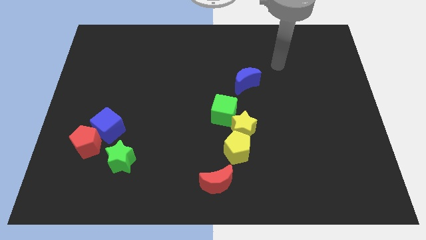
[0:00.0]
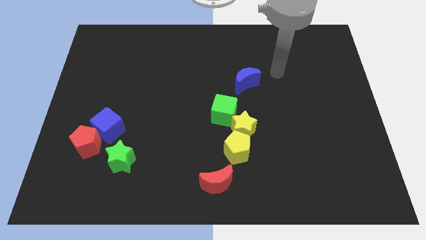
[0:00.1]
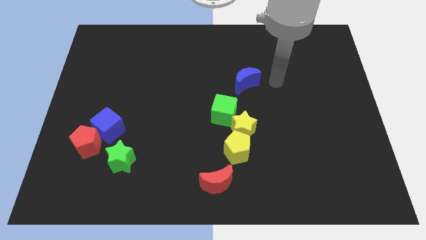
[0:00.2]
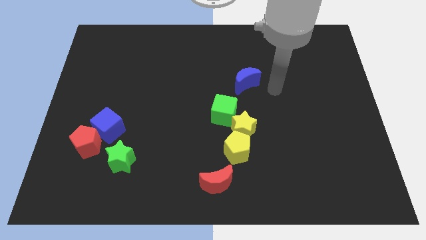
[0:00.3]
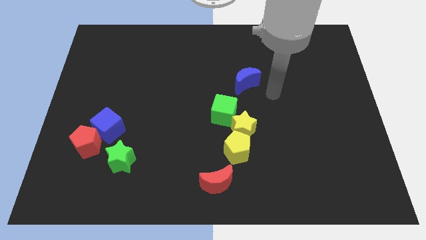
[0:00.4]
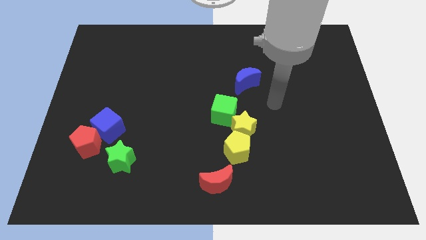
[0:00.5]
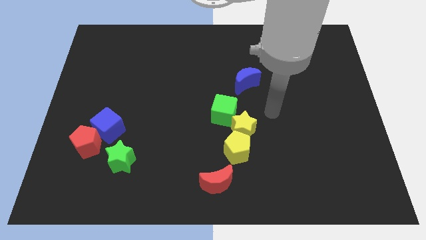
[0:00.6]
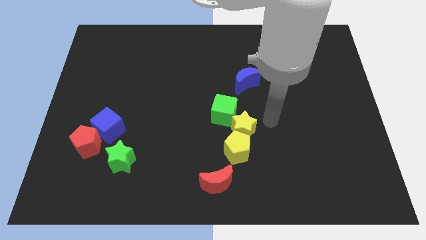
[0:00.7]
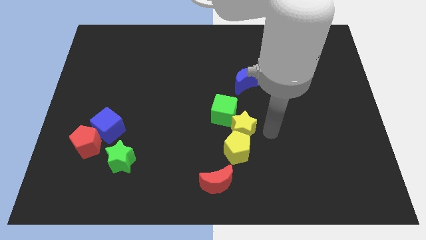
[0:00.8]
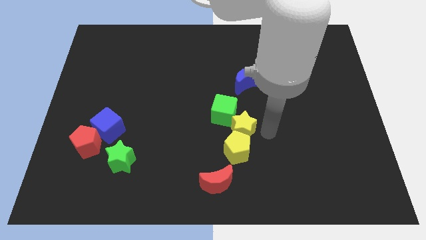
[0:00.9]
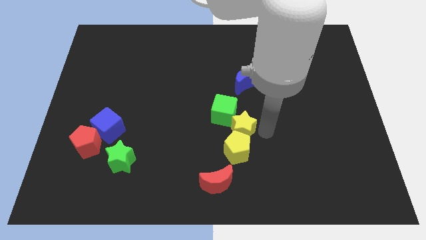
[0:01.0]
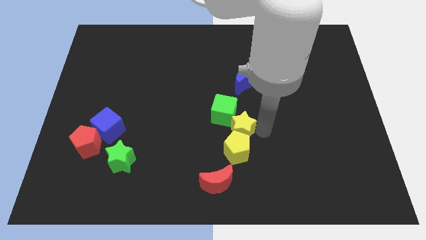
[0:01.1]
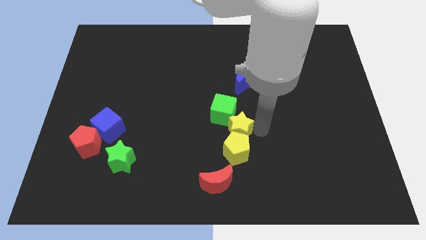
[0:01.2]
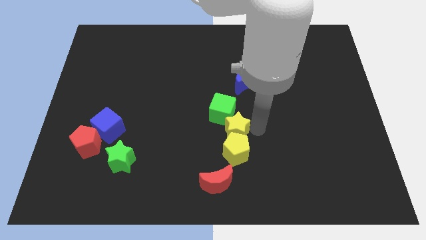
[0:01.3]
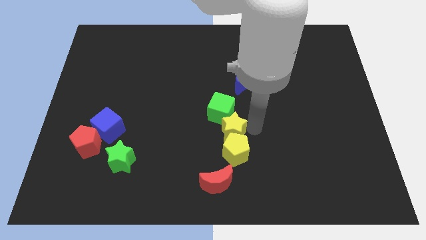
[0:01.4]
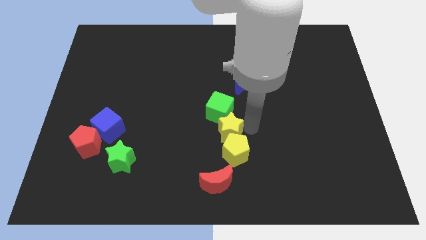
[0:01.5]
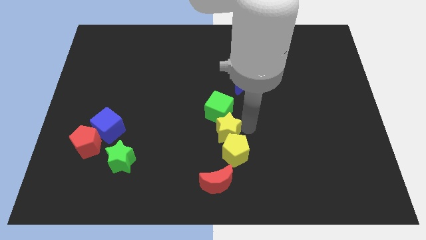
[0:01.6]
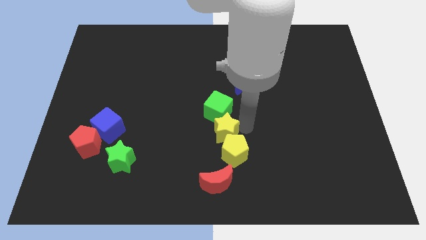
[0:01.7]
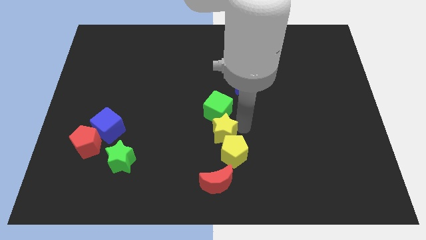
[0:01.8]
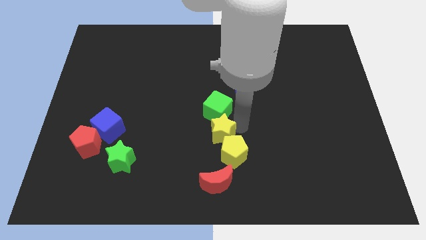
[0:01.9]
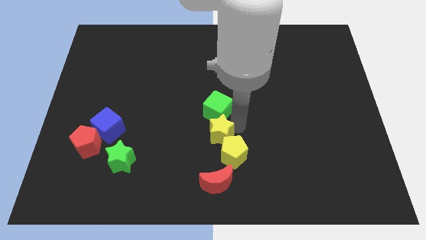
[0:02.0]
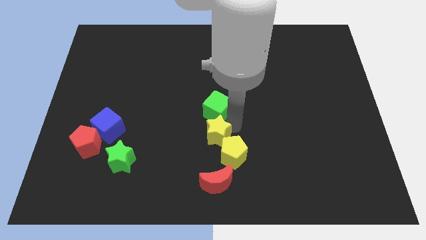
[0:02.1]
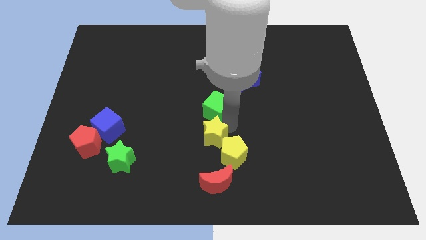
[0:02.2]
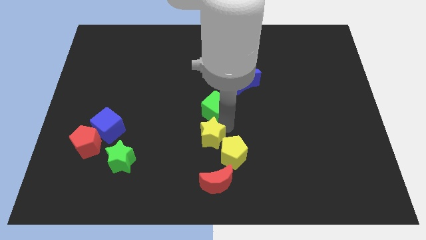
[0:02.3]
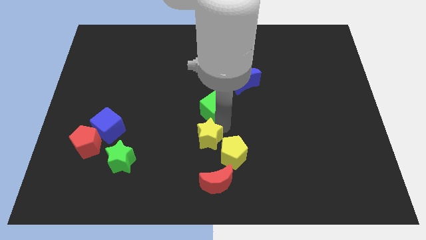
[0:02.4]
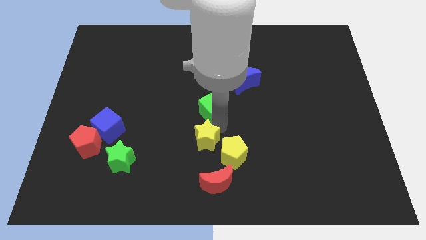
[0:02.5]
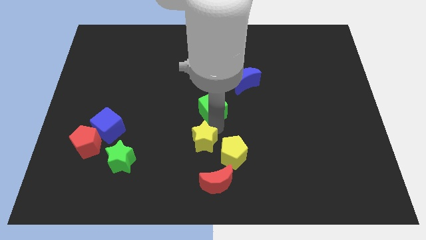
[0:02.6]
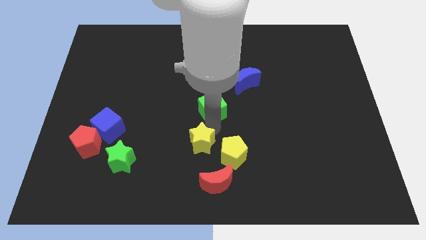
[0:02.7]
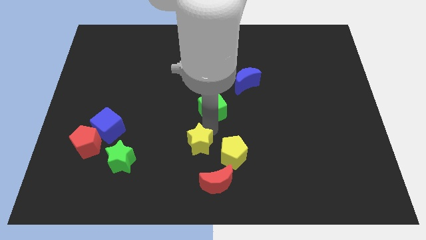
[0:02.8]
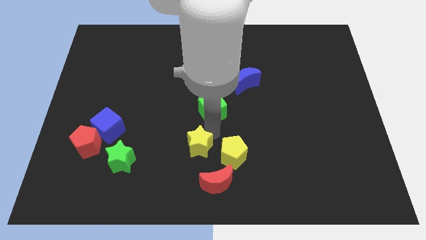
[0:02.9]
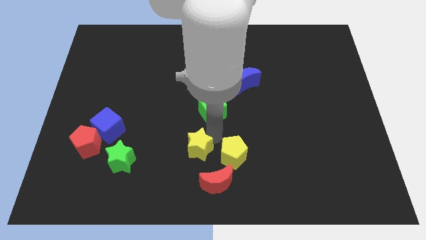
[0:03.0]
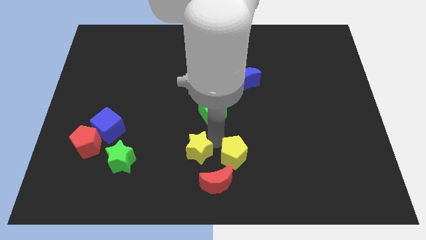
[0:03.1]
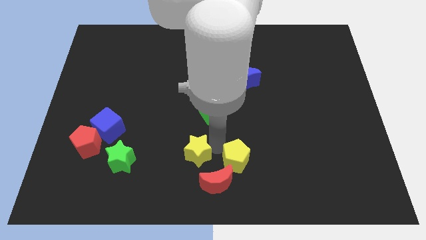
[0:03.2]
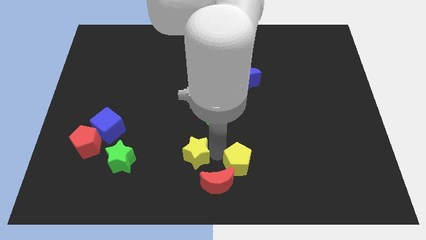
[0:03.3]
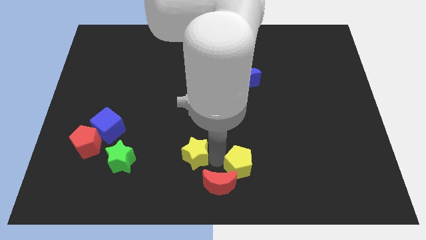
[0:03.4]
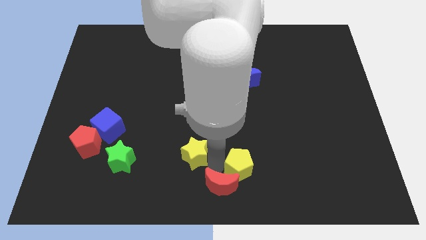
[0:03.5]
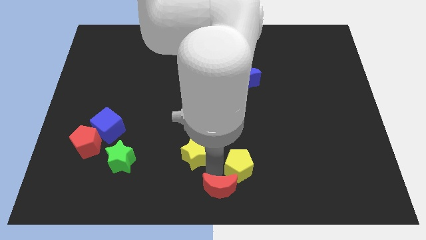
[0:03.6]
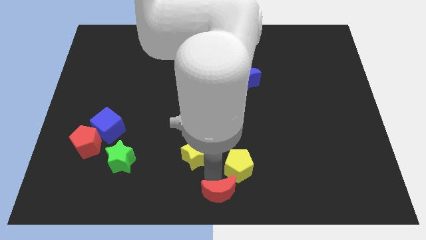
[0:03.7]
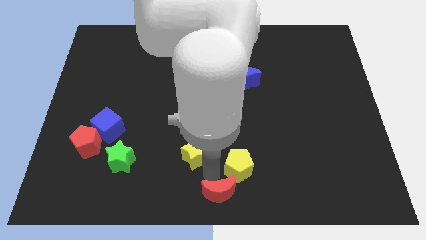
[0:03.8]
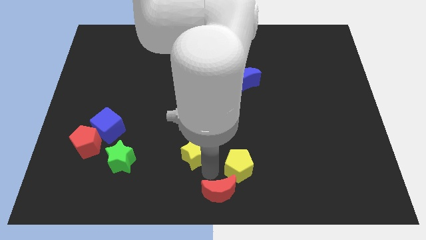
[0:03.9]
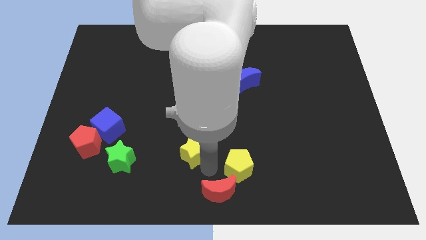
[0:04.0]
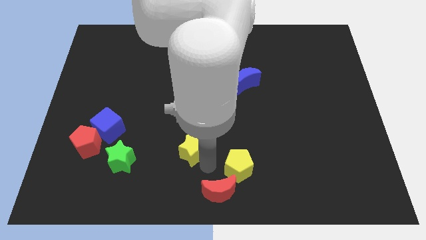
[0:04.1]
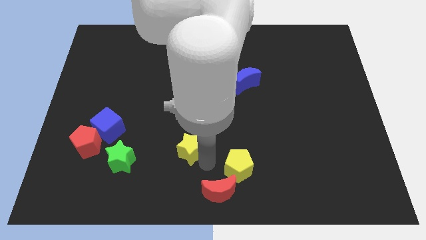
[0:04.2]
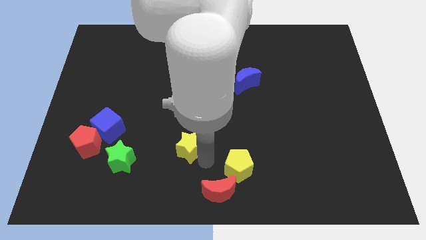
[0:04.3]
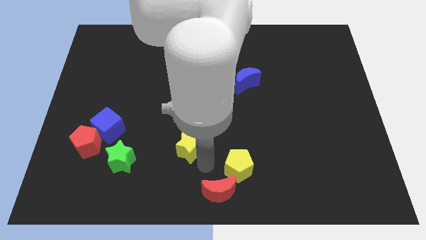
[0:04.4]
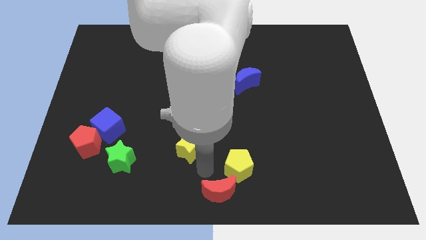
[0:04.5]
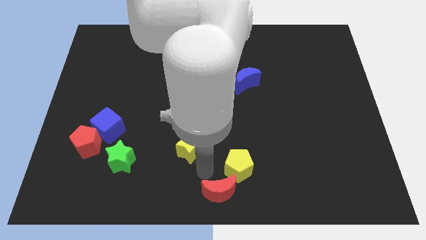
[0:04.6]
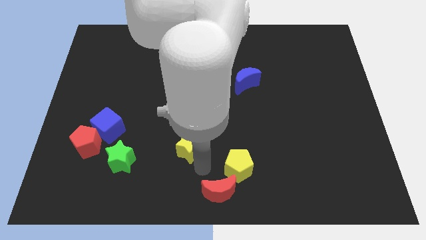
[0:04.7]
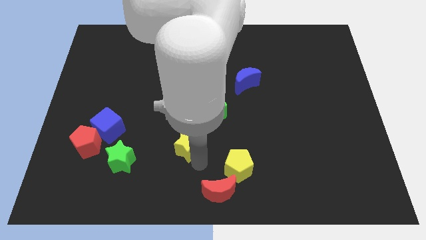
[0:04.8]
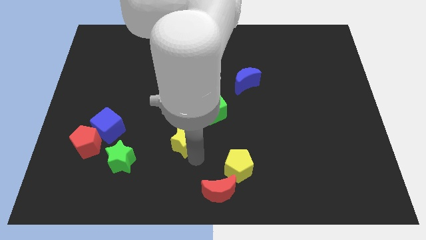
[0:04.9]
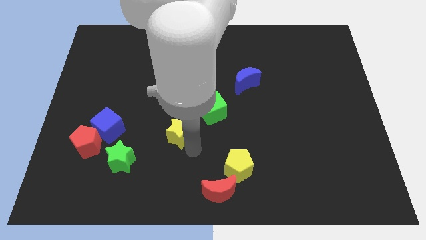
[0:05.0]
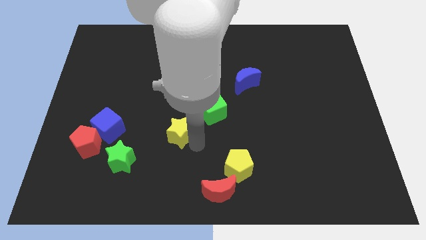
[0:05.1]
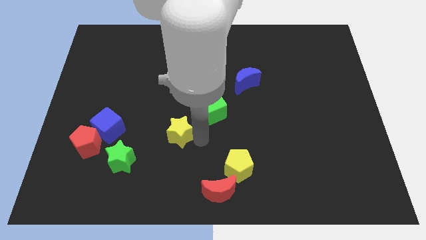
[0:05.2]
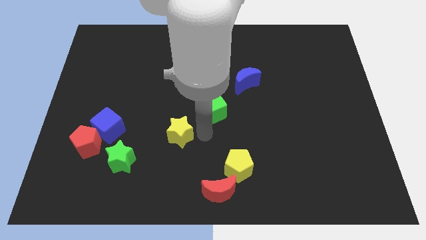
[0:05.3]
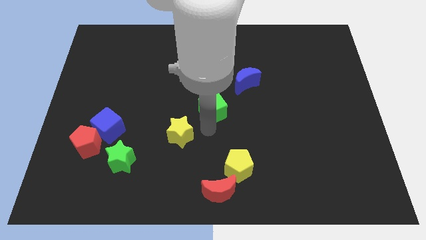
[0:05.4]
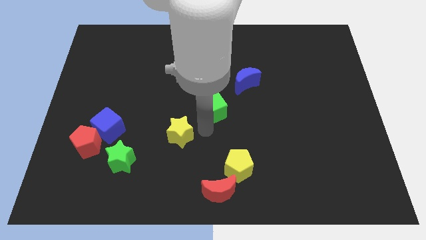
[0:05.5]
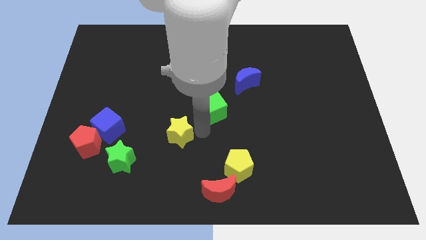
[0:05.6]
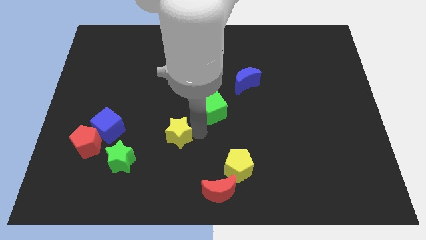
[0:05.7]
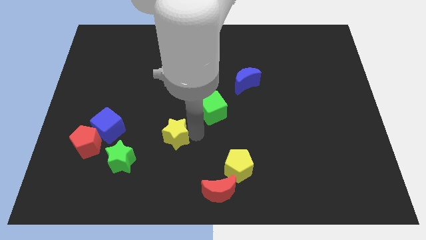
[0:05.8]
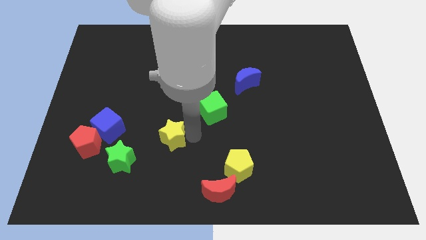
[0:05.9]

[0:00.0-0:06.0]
push the yellow star diagonally up and to the right of the green star

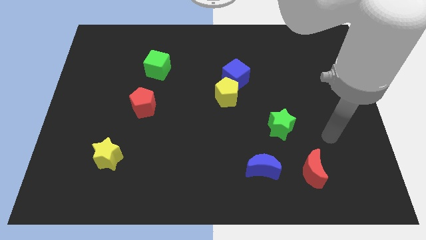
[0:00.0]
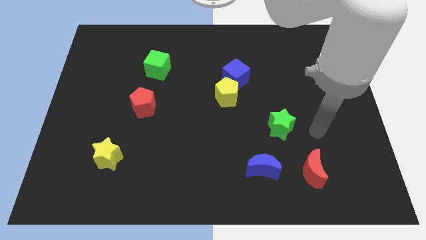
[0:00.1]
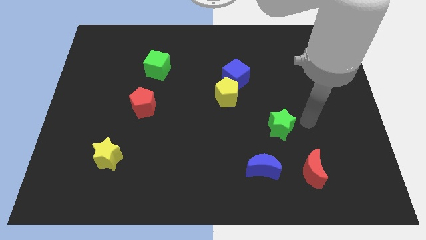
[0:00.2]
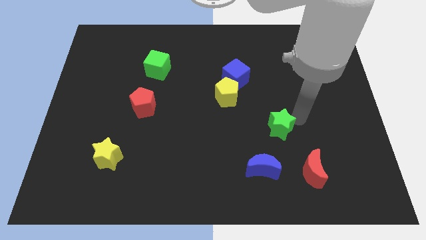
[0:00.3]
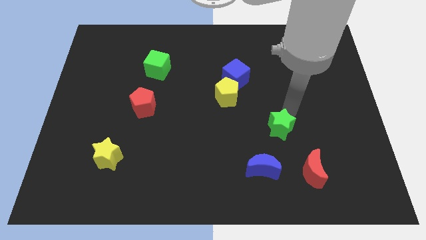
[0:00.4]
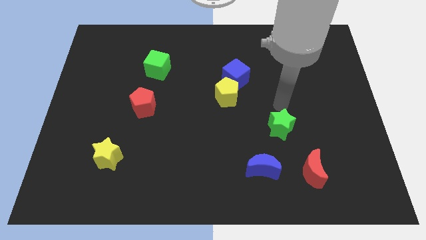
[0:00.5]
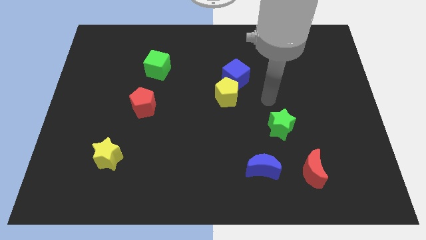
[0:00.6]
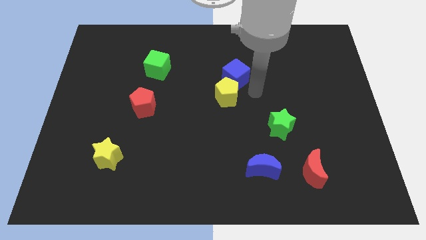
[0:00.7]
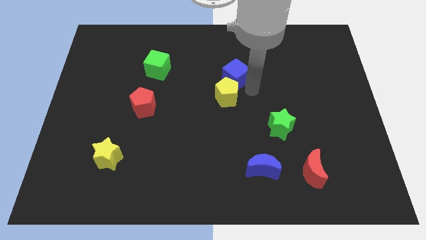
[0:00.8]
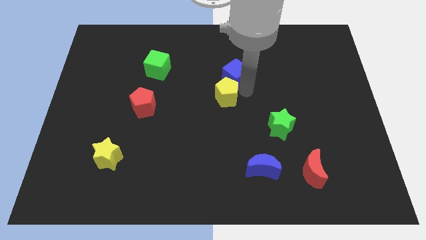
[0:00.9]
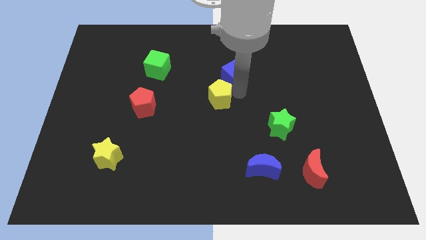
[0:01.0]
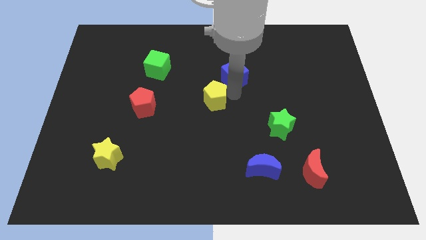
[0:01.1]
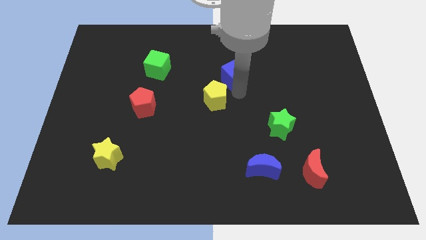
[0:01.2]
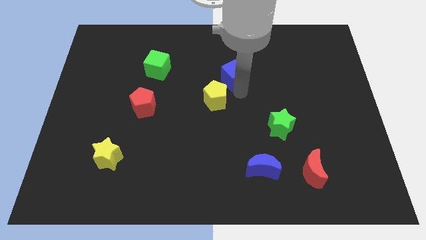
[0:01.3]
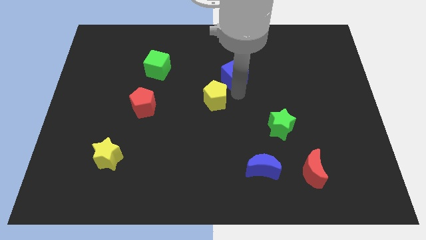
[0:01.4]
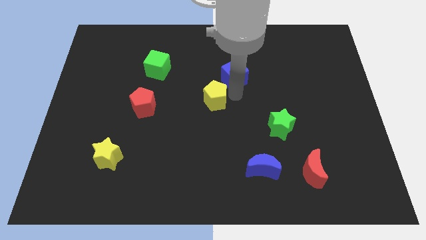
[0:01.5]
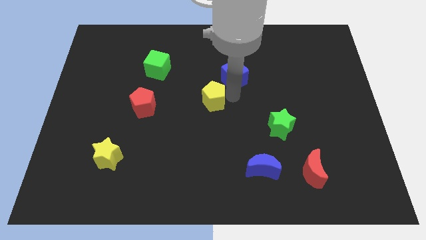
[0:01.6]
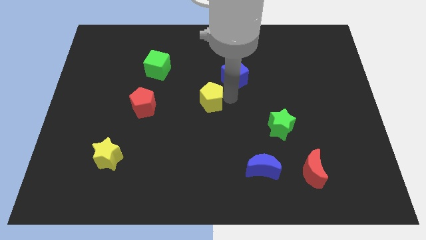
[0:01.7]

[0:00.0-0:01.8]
slide the yellow pentagon just right of the red pentagon
